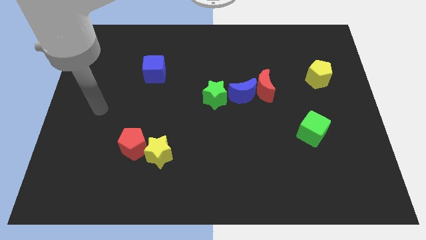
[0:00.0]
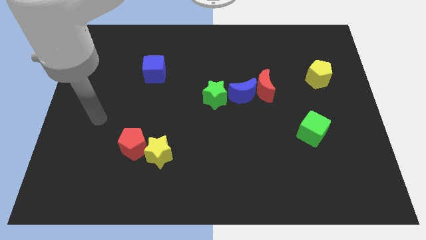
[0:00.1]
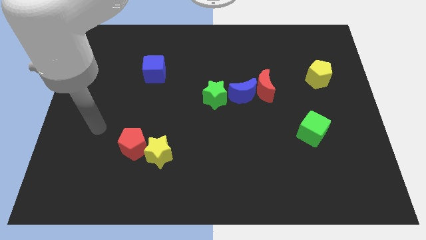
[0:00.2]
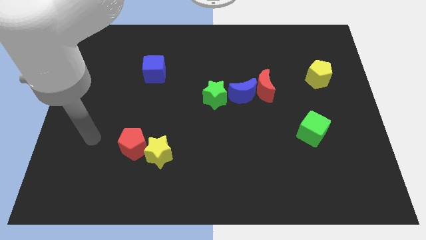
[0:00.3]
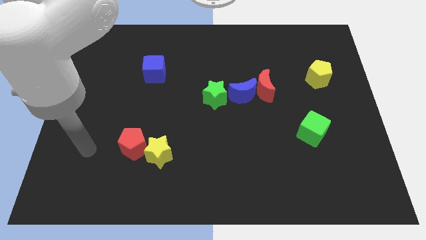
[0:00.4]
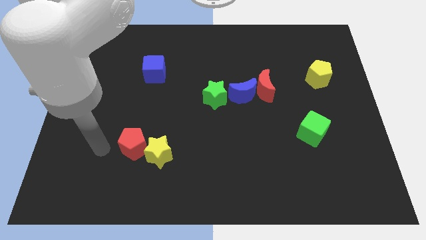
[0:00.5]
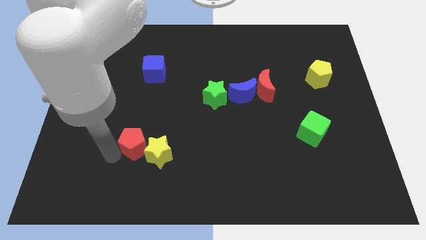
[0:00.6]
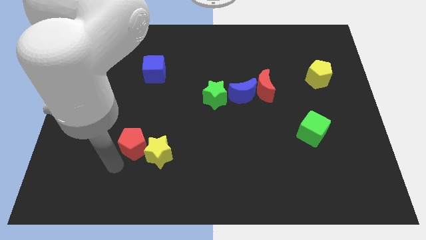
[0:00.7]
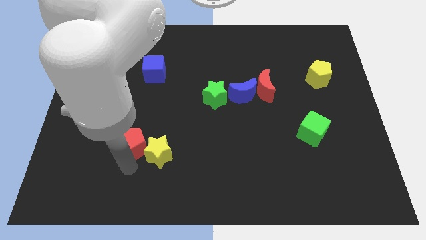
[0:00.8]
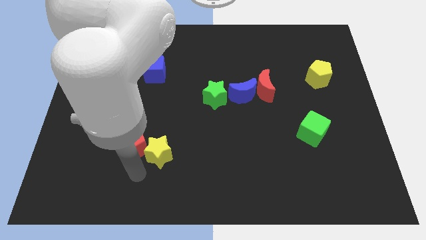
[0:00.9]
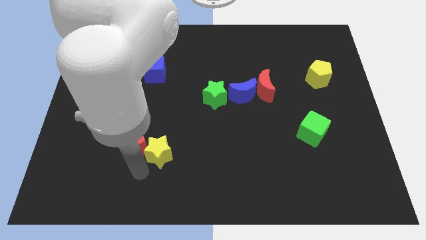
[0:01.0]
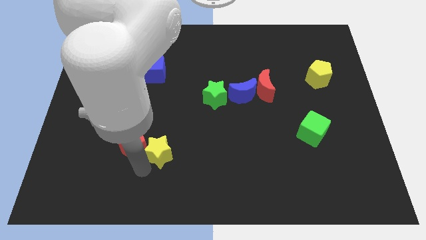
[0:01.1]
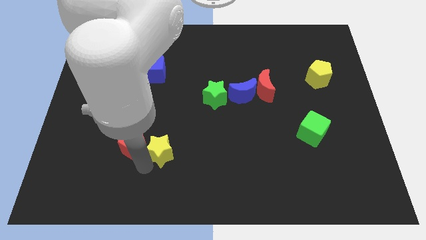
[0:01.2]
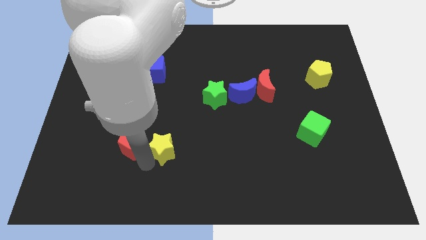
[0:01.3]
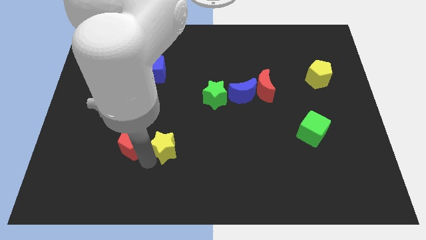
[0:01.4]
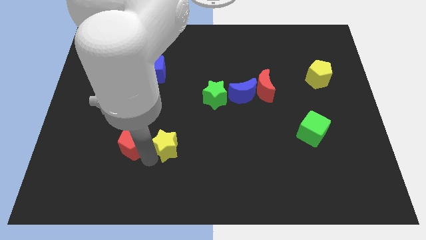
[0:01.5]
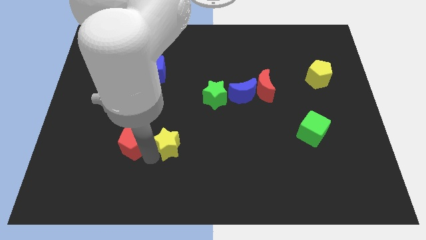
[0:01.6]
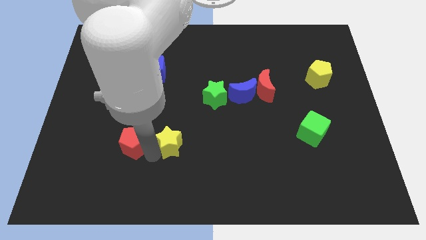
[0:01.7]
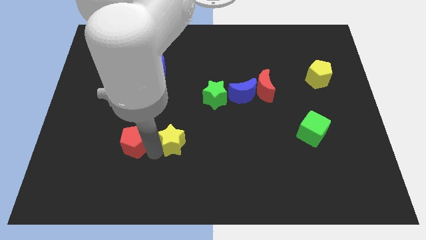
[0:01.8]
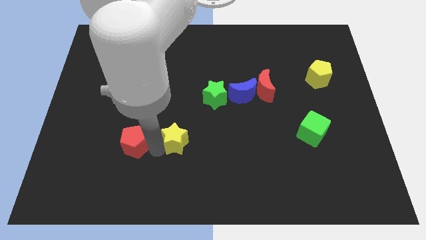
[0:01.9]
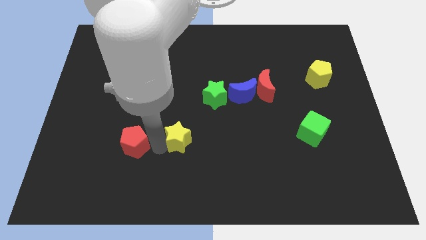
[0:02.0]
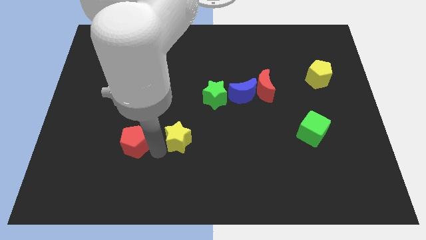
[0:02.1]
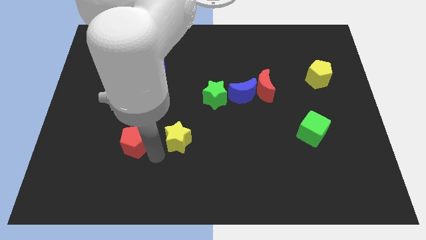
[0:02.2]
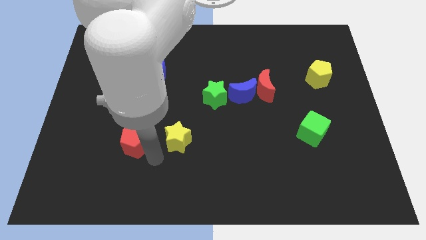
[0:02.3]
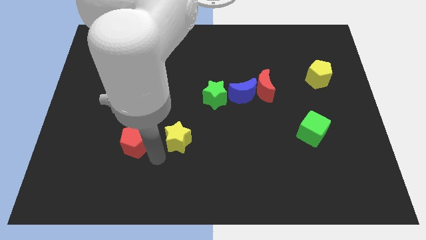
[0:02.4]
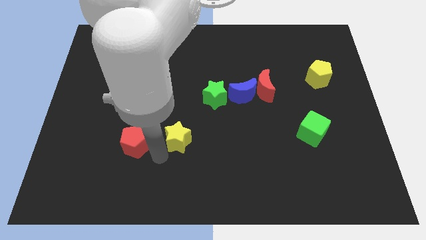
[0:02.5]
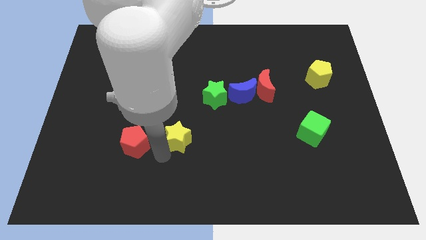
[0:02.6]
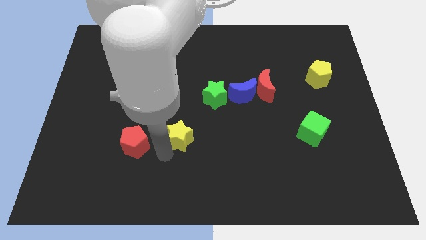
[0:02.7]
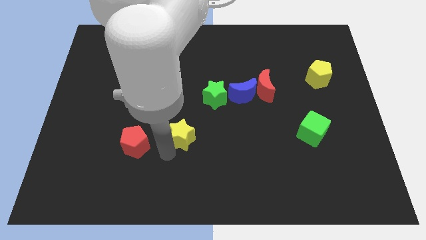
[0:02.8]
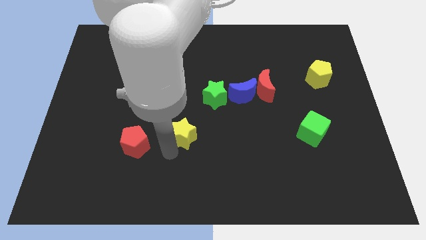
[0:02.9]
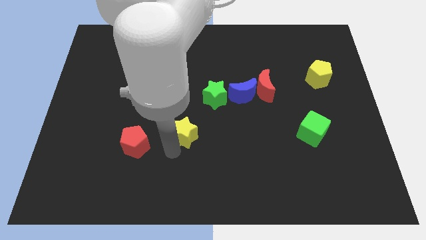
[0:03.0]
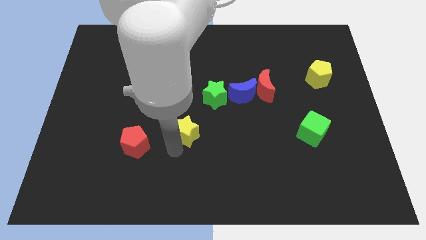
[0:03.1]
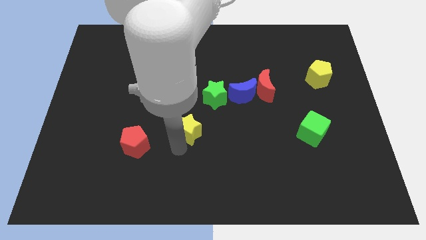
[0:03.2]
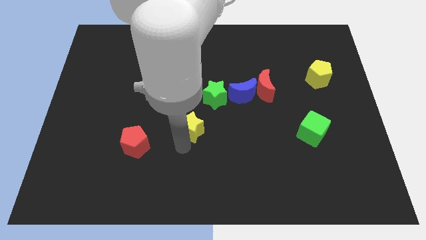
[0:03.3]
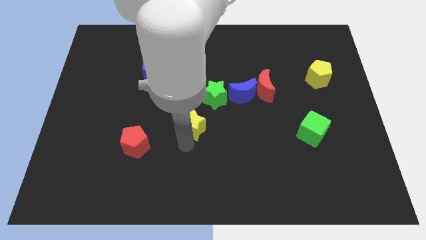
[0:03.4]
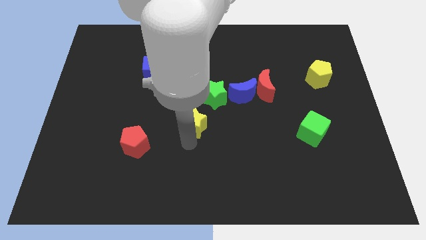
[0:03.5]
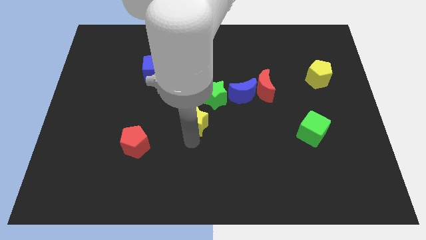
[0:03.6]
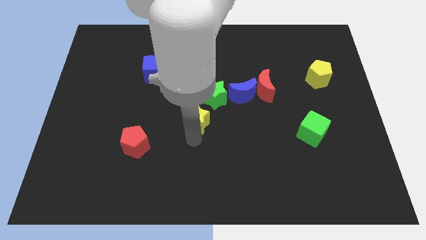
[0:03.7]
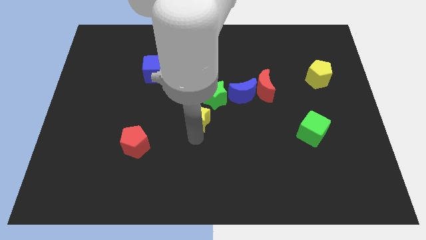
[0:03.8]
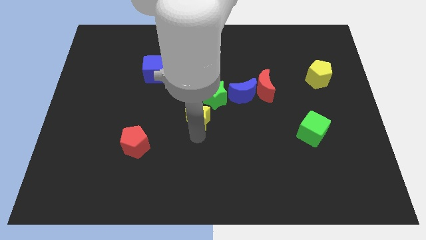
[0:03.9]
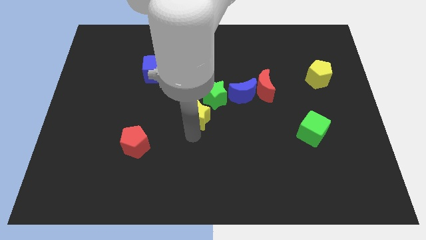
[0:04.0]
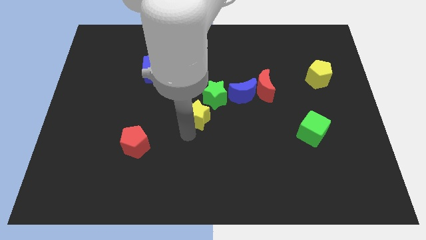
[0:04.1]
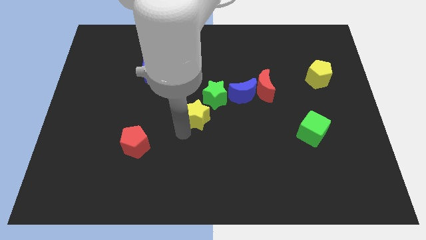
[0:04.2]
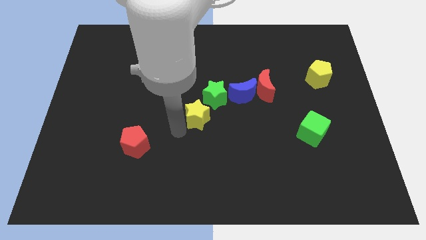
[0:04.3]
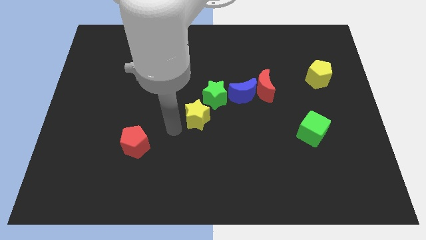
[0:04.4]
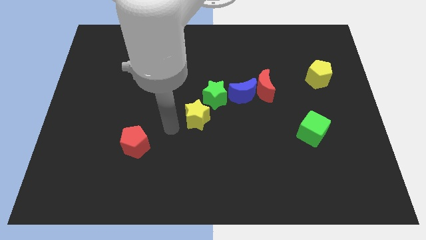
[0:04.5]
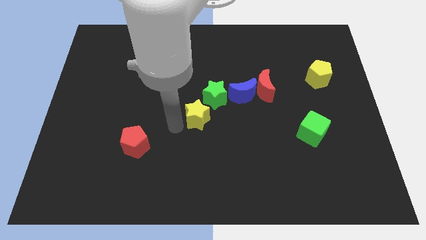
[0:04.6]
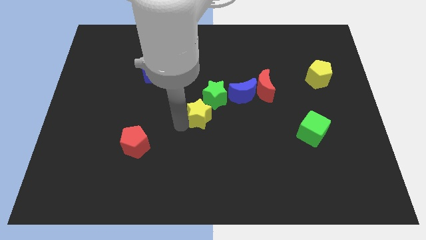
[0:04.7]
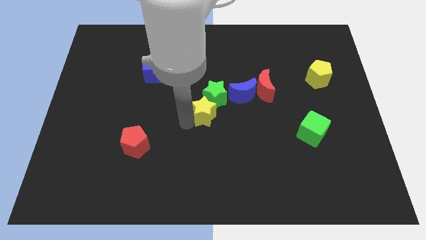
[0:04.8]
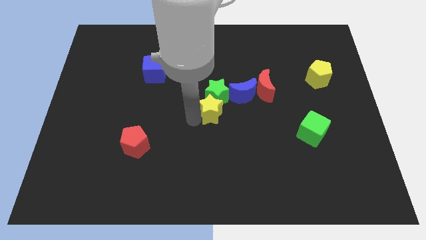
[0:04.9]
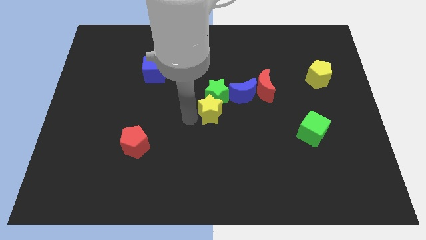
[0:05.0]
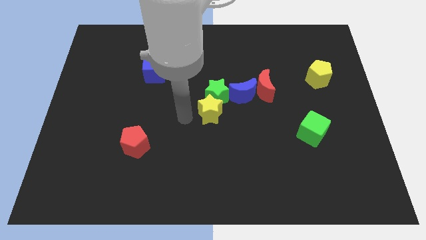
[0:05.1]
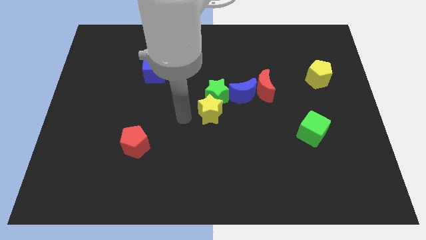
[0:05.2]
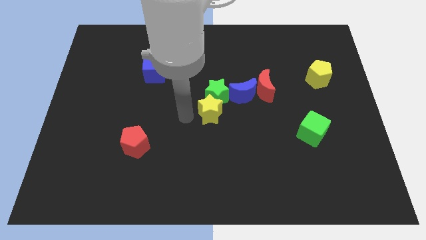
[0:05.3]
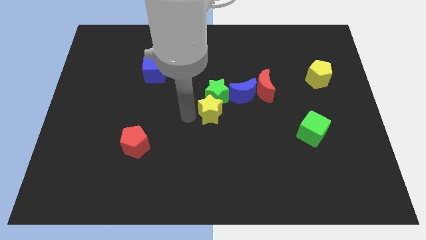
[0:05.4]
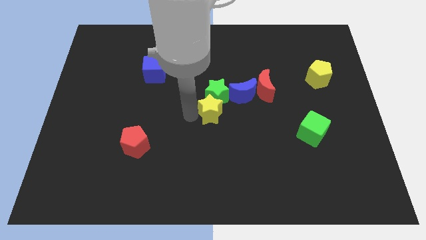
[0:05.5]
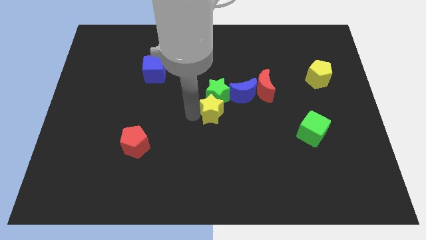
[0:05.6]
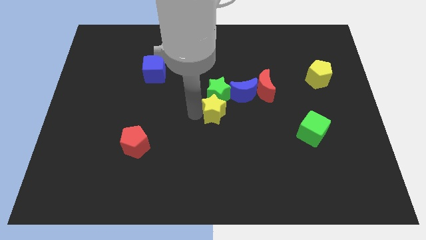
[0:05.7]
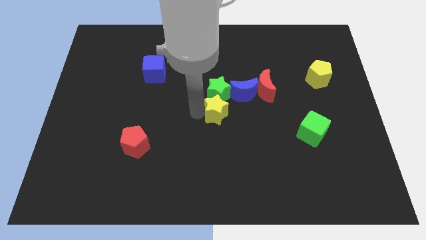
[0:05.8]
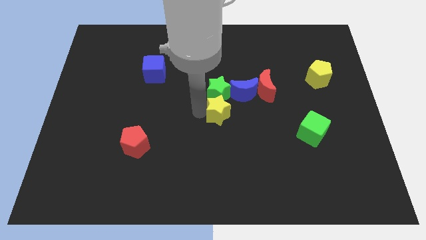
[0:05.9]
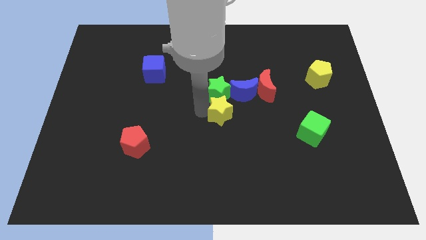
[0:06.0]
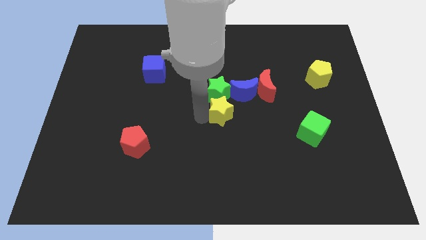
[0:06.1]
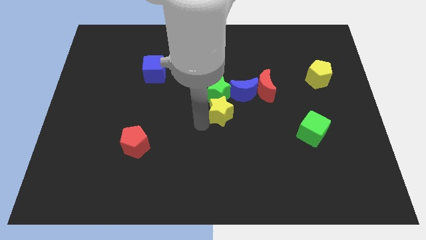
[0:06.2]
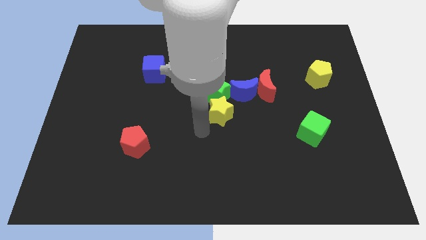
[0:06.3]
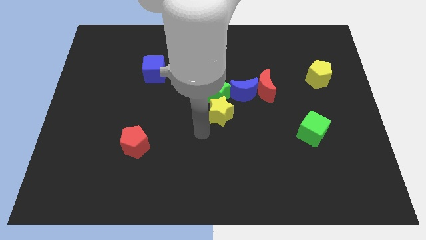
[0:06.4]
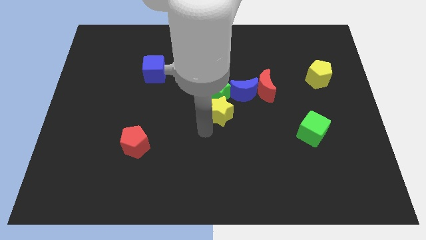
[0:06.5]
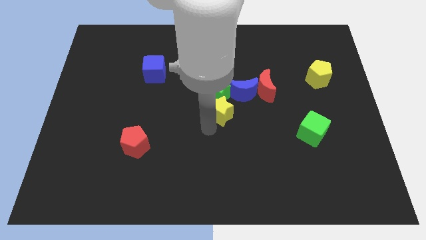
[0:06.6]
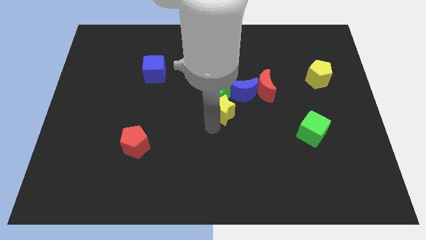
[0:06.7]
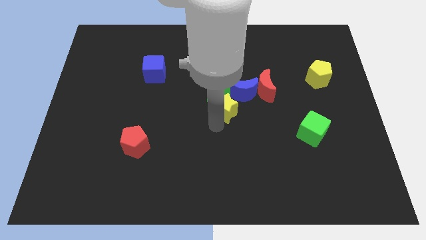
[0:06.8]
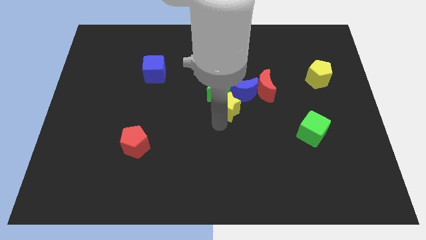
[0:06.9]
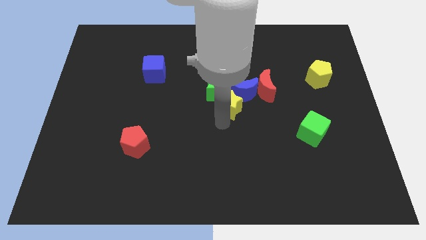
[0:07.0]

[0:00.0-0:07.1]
move the yellow star close to the blue moon

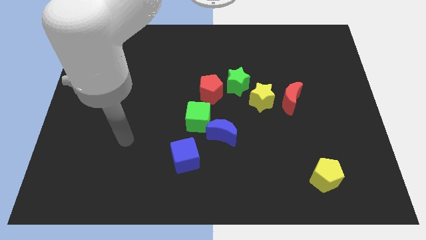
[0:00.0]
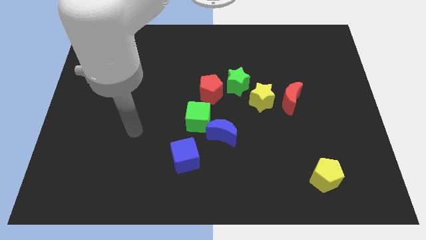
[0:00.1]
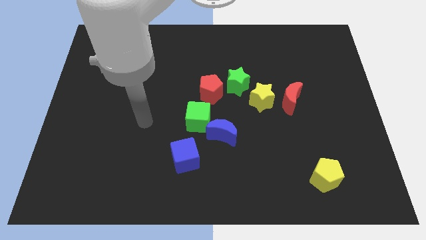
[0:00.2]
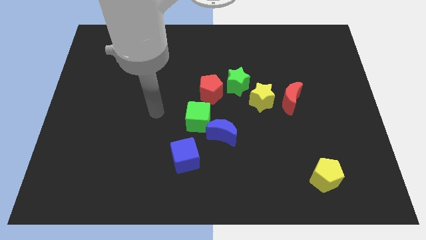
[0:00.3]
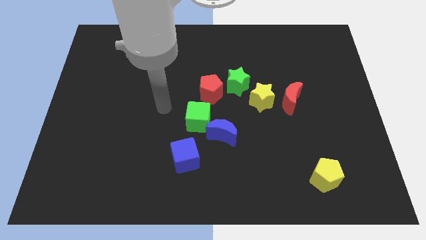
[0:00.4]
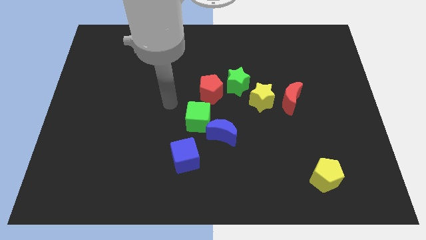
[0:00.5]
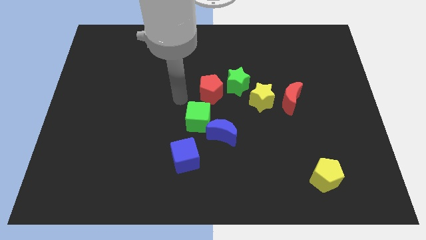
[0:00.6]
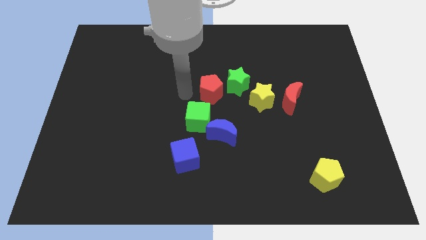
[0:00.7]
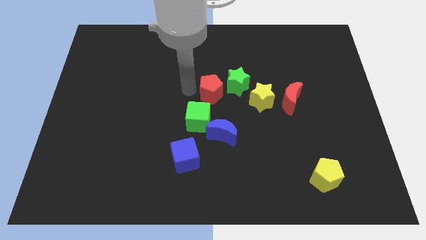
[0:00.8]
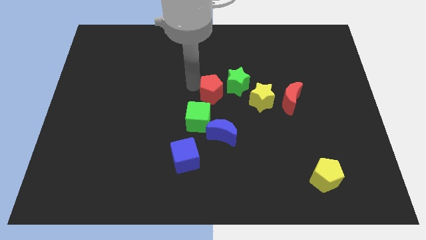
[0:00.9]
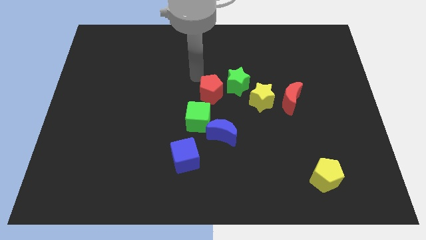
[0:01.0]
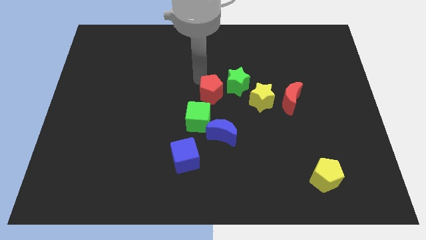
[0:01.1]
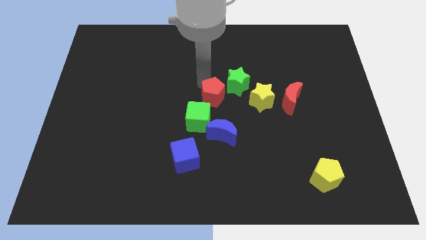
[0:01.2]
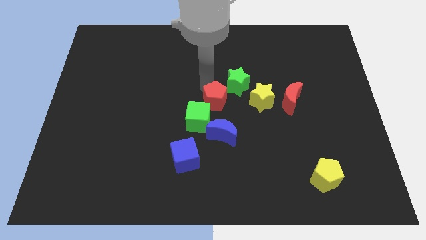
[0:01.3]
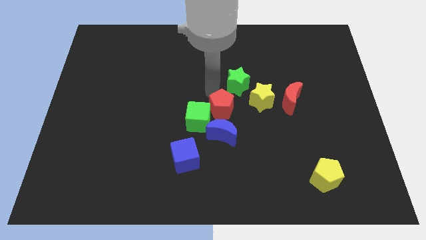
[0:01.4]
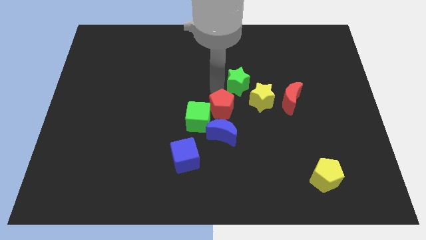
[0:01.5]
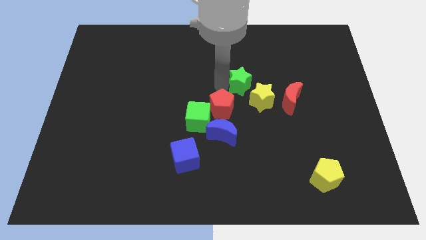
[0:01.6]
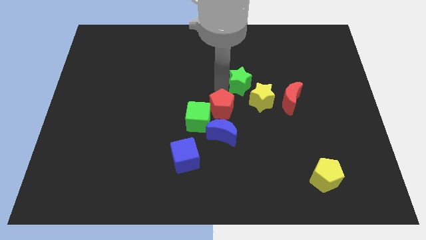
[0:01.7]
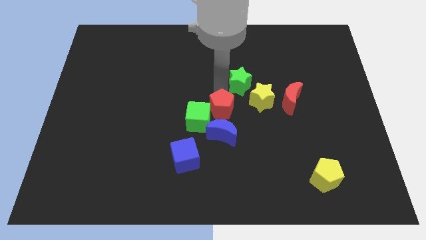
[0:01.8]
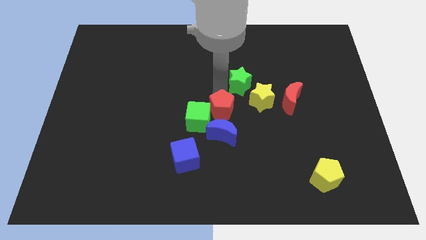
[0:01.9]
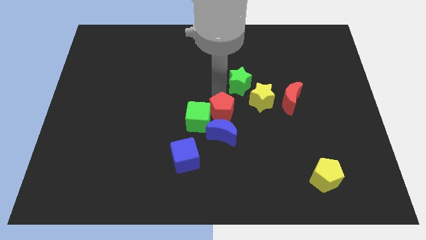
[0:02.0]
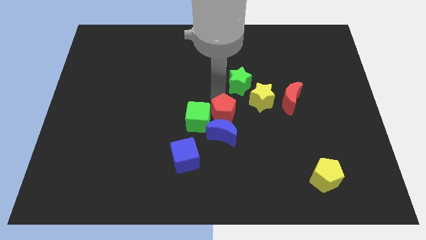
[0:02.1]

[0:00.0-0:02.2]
push the red pentagon to the blue moon
